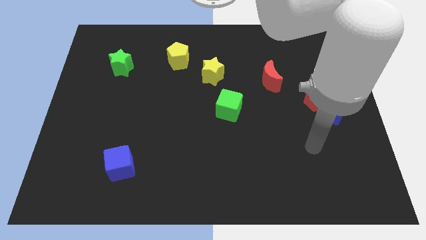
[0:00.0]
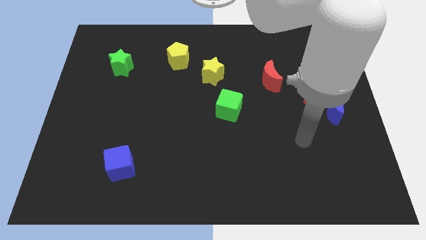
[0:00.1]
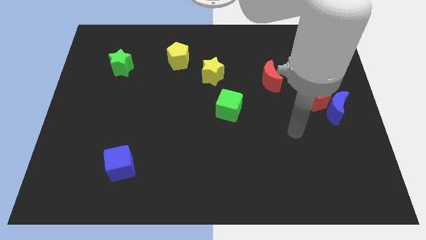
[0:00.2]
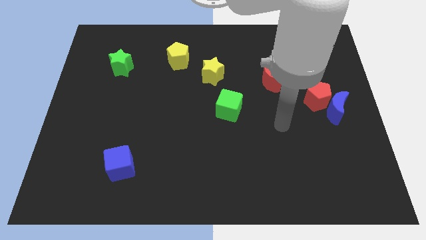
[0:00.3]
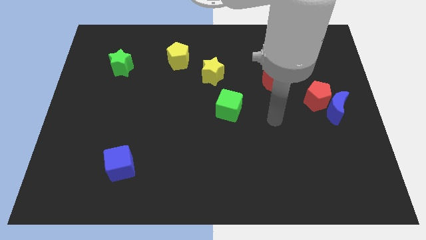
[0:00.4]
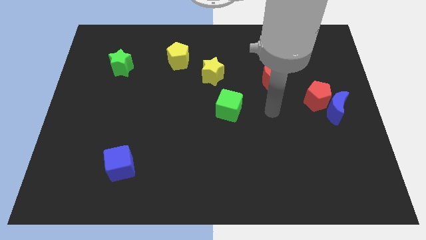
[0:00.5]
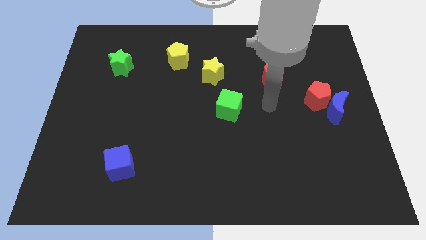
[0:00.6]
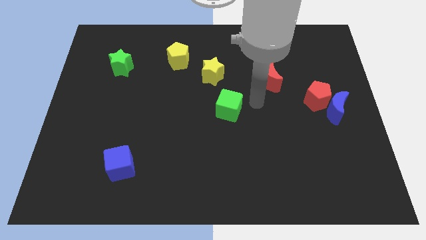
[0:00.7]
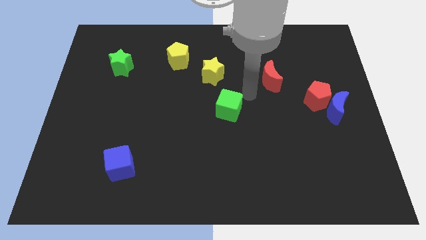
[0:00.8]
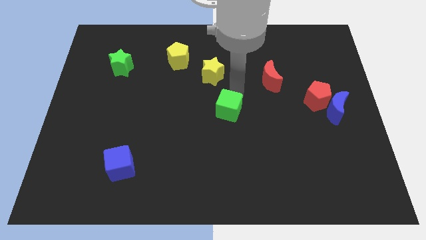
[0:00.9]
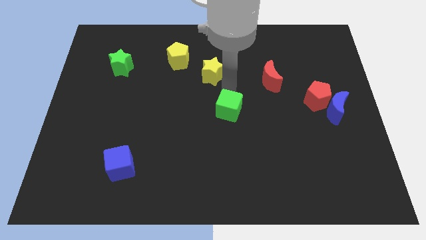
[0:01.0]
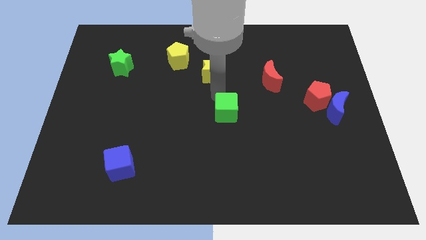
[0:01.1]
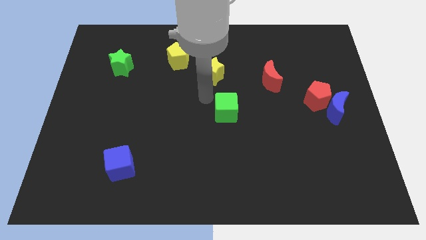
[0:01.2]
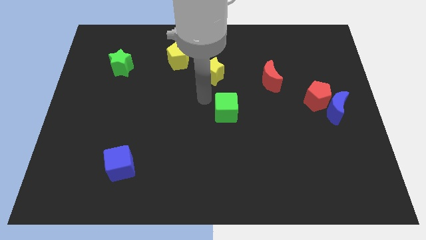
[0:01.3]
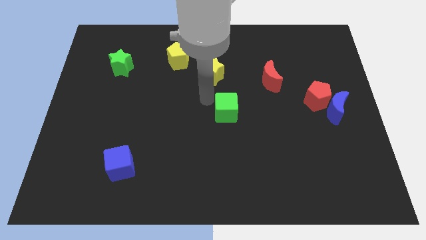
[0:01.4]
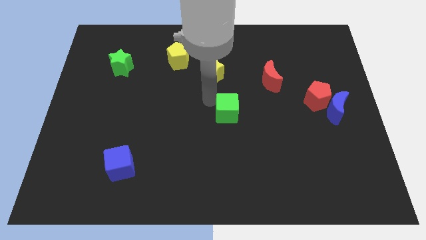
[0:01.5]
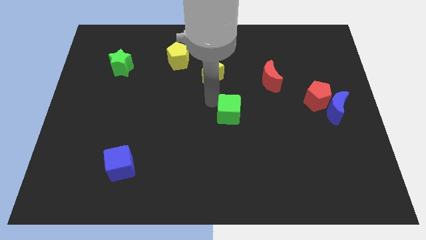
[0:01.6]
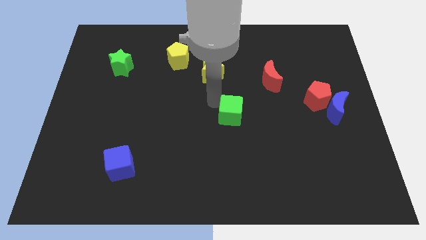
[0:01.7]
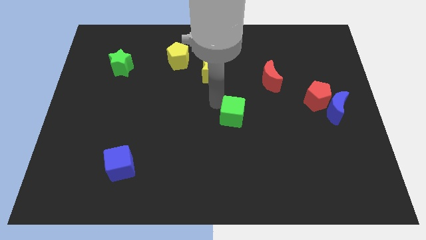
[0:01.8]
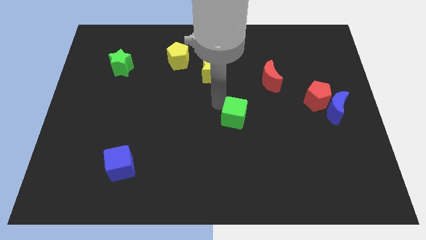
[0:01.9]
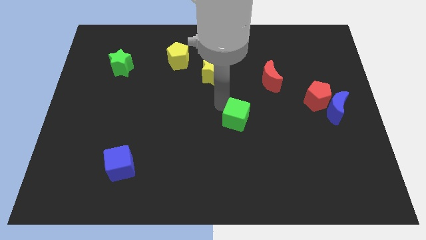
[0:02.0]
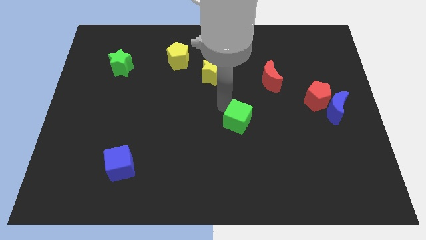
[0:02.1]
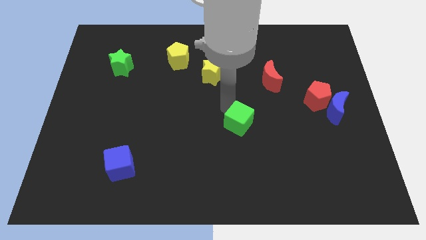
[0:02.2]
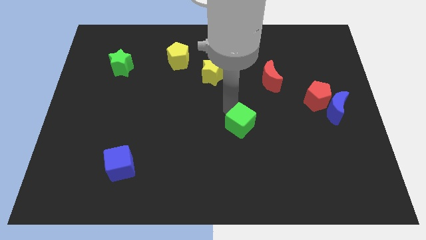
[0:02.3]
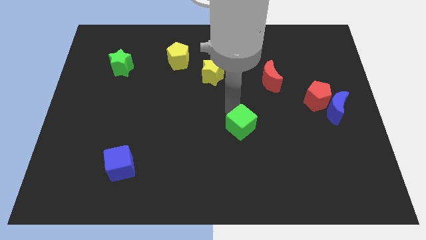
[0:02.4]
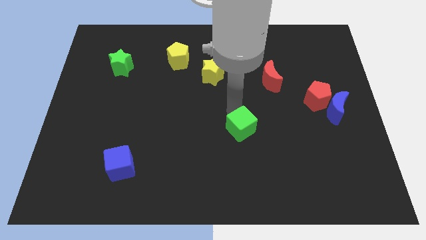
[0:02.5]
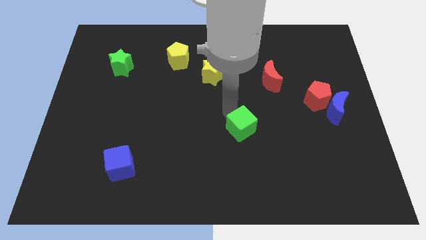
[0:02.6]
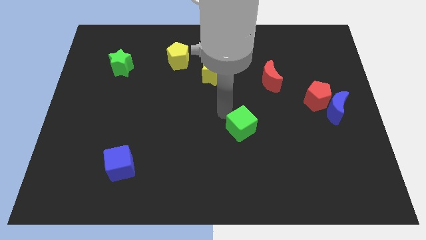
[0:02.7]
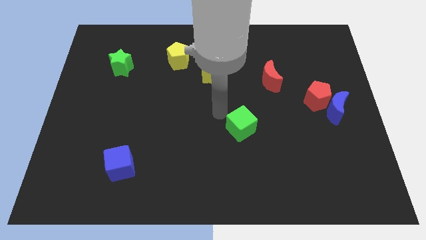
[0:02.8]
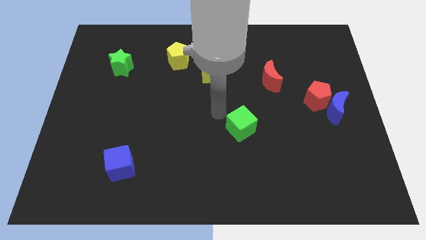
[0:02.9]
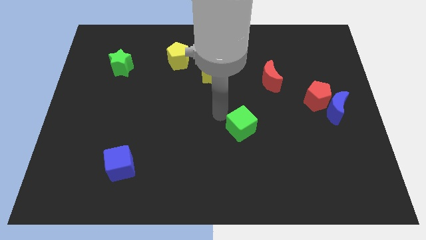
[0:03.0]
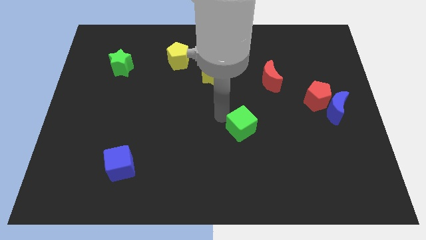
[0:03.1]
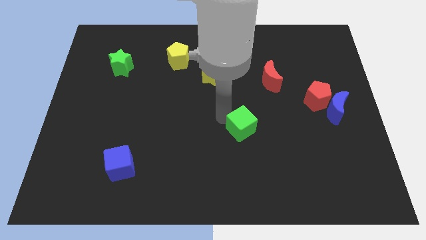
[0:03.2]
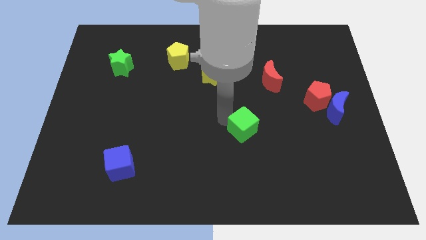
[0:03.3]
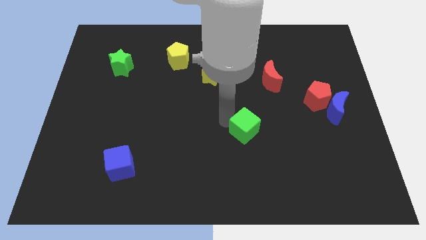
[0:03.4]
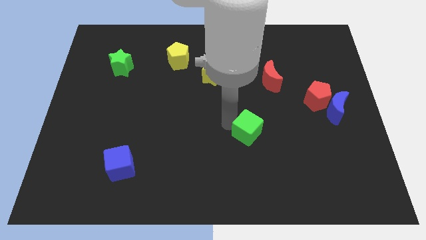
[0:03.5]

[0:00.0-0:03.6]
move the green cube a little bit diagonally down and right

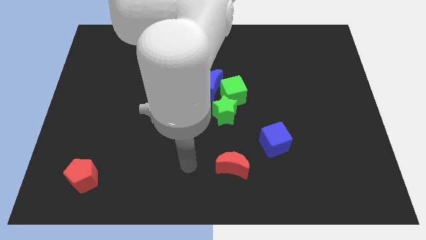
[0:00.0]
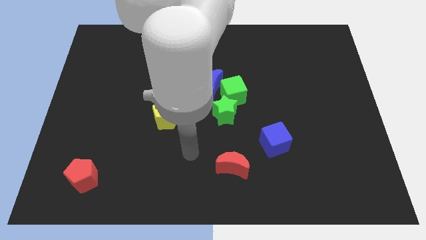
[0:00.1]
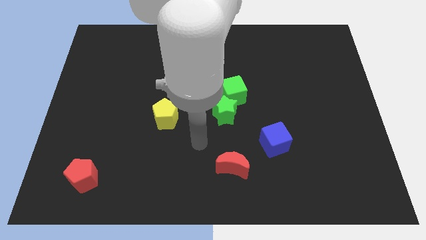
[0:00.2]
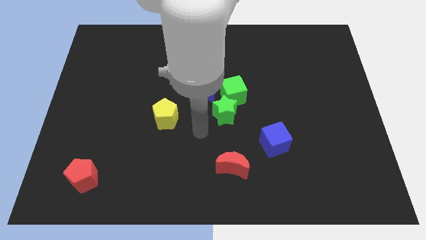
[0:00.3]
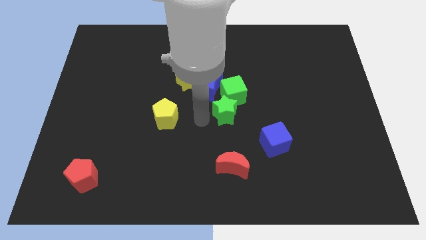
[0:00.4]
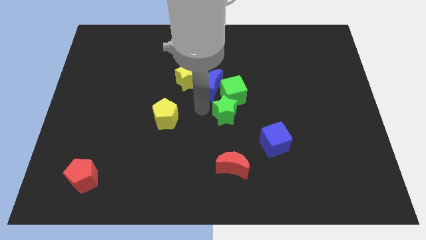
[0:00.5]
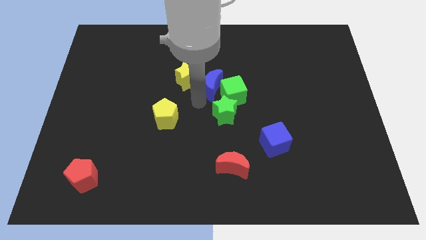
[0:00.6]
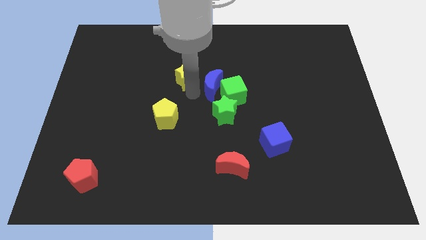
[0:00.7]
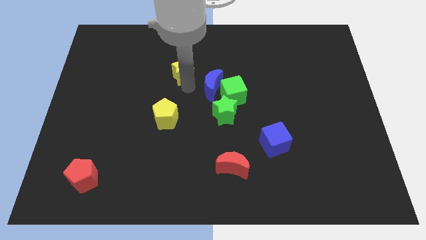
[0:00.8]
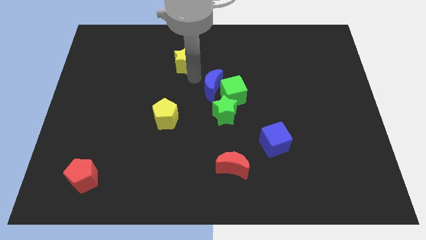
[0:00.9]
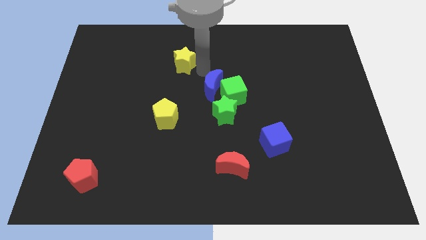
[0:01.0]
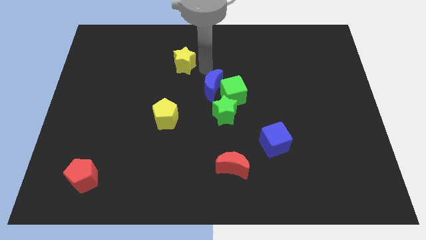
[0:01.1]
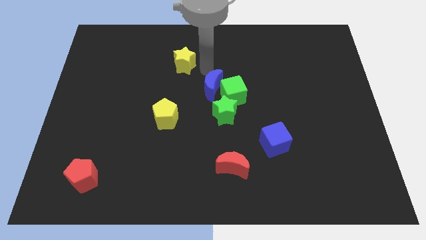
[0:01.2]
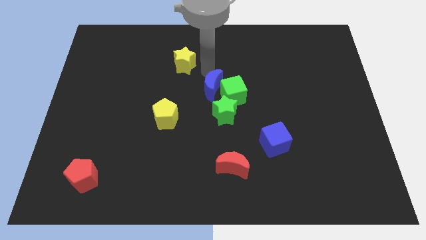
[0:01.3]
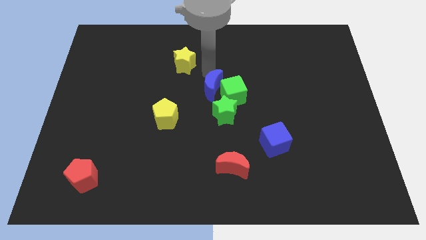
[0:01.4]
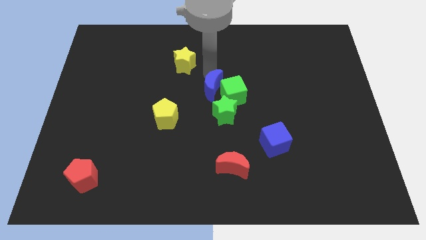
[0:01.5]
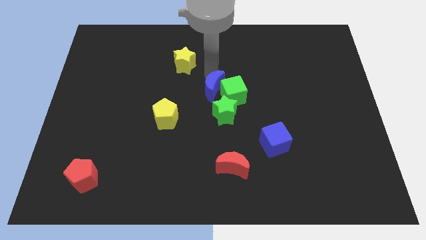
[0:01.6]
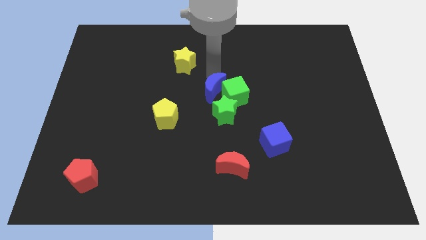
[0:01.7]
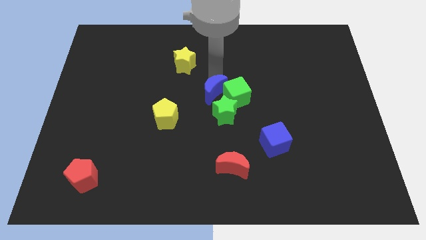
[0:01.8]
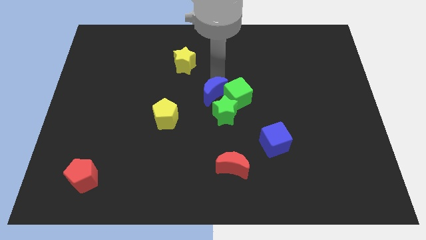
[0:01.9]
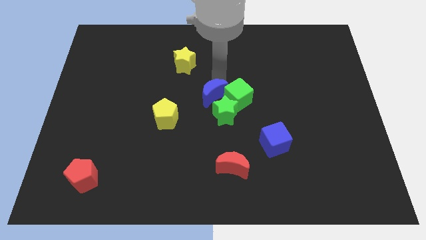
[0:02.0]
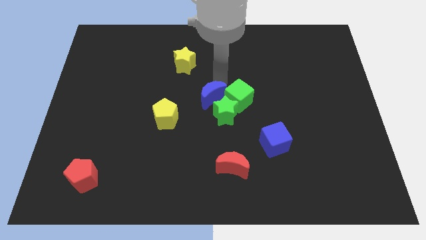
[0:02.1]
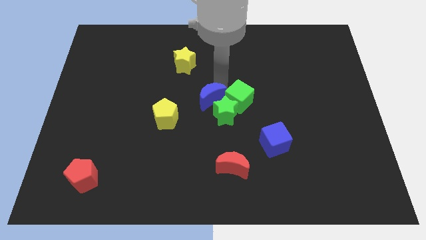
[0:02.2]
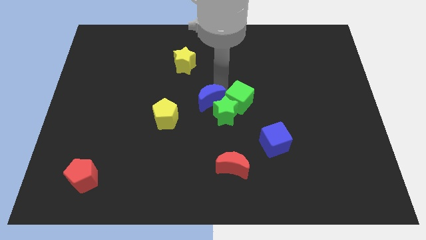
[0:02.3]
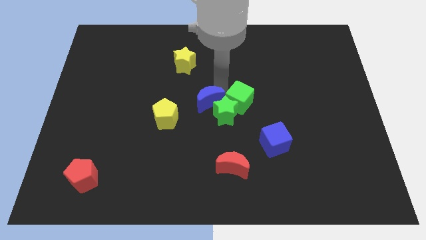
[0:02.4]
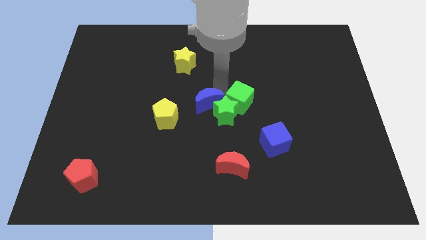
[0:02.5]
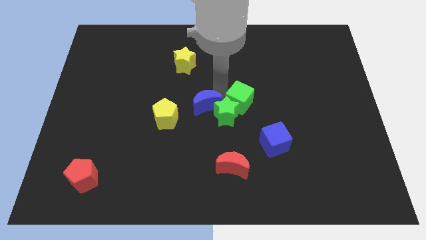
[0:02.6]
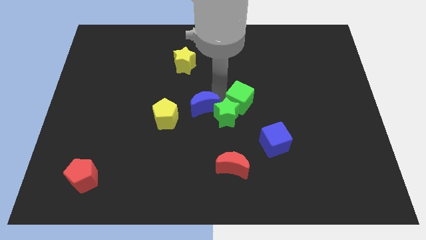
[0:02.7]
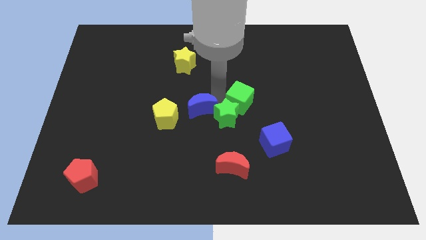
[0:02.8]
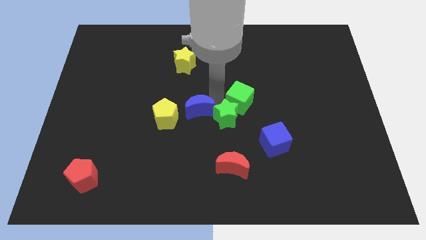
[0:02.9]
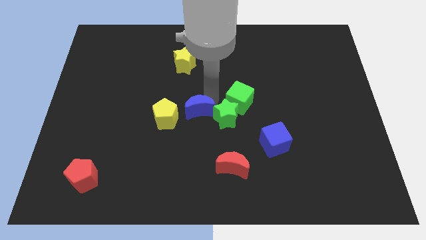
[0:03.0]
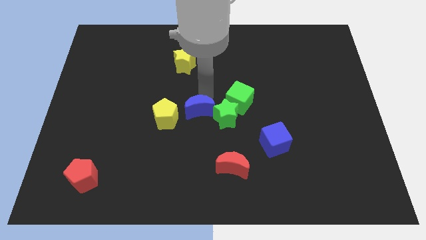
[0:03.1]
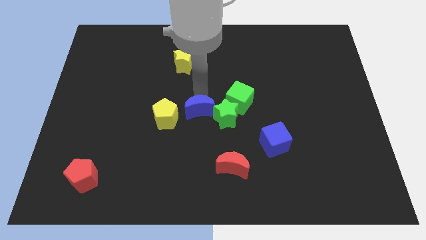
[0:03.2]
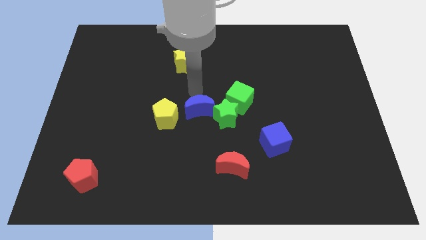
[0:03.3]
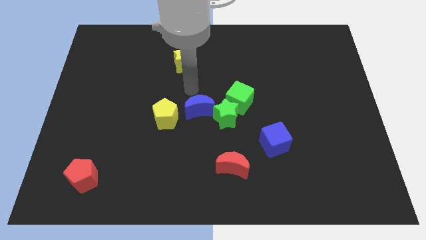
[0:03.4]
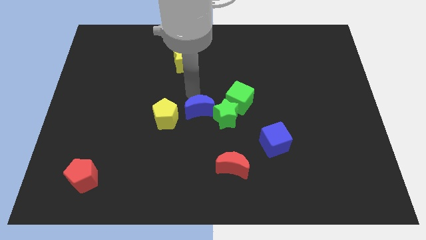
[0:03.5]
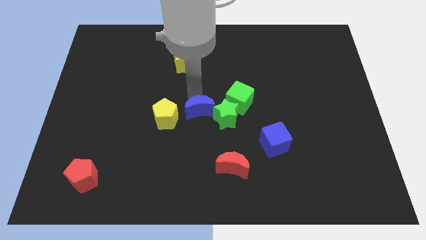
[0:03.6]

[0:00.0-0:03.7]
slightly push the blue moon down

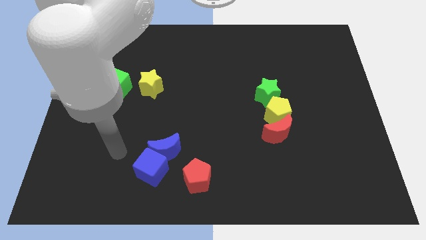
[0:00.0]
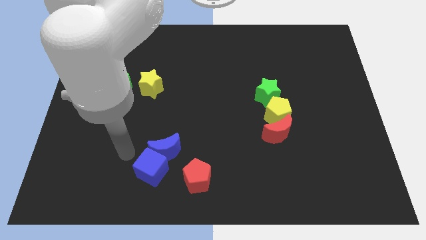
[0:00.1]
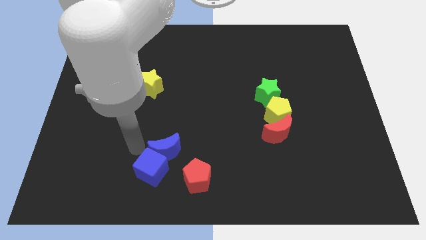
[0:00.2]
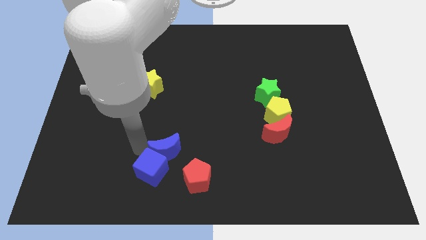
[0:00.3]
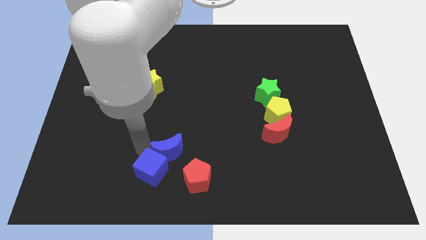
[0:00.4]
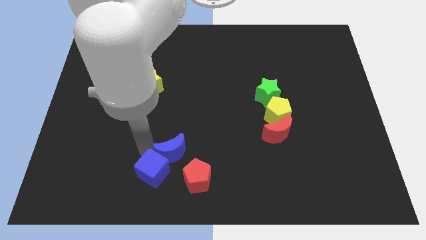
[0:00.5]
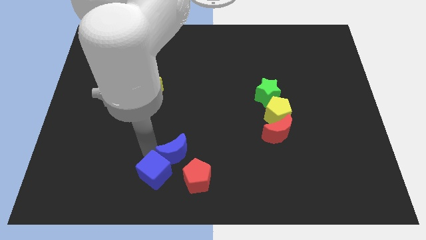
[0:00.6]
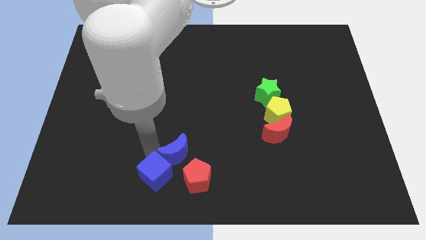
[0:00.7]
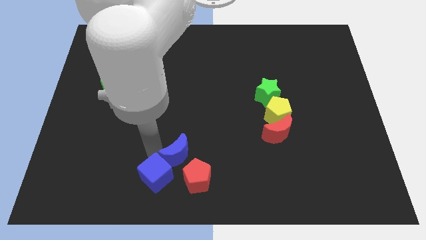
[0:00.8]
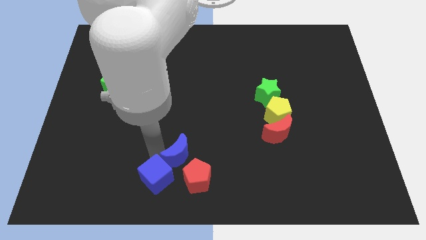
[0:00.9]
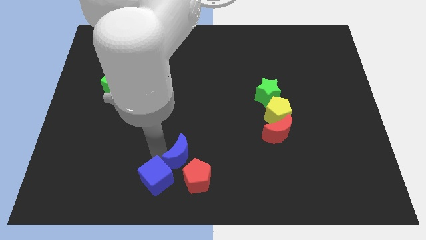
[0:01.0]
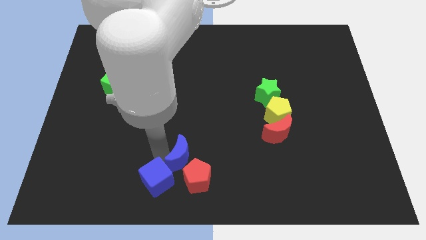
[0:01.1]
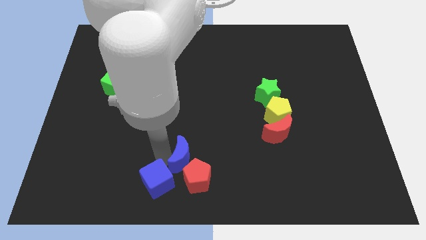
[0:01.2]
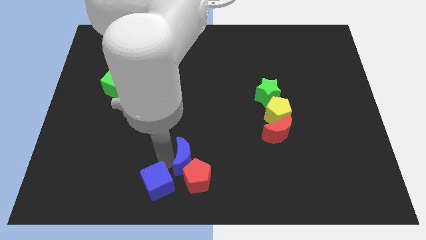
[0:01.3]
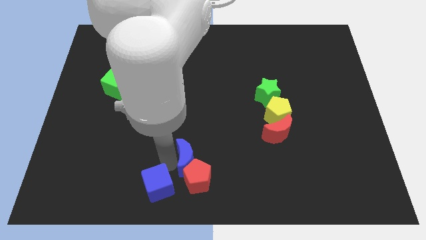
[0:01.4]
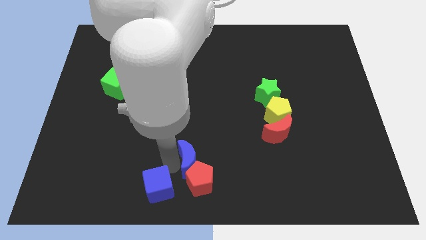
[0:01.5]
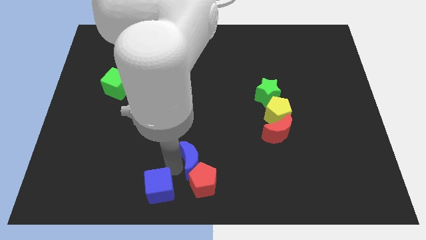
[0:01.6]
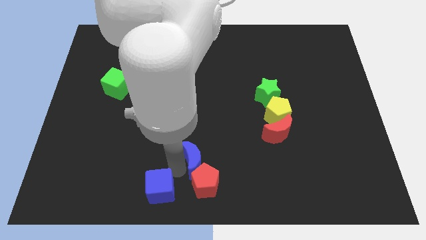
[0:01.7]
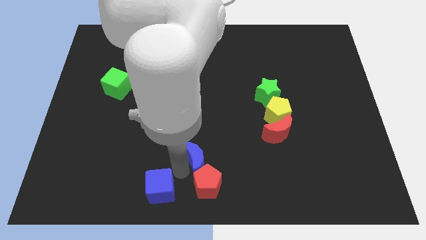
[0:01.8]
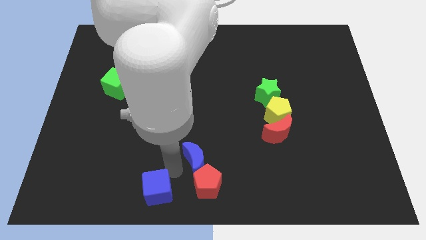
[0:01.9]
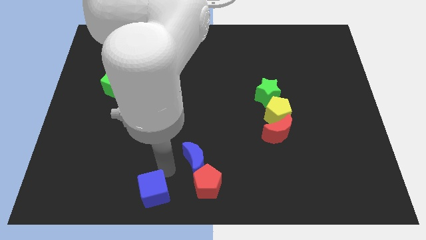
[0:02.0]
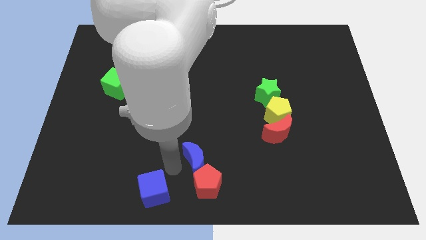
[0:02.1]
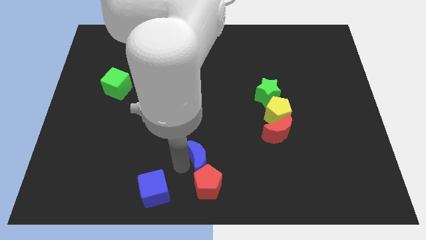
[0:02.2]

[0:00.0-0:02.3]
slide the blue moon to the right slightly
